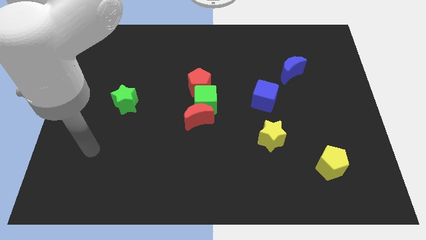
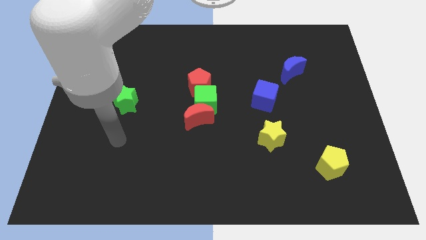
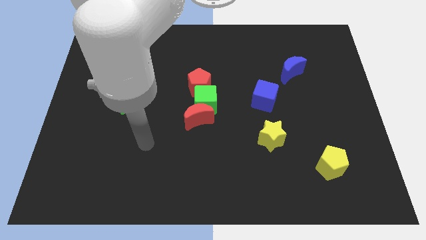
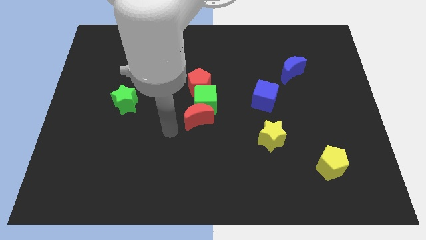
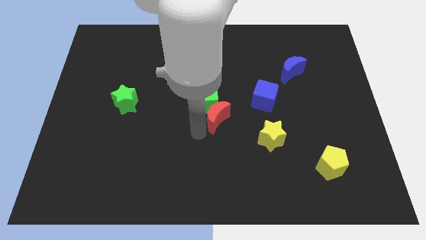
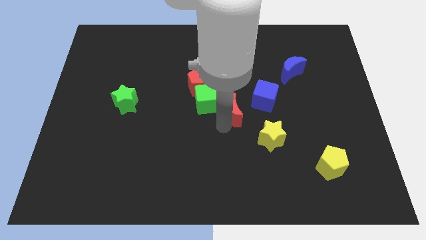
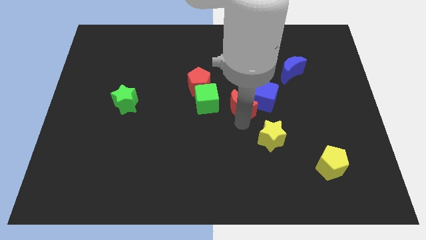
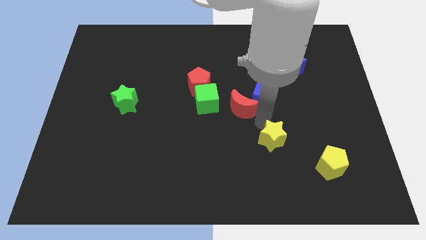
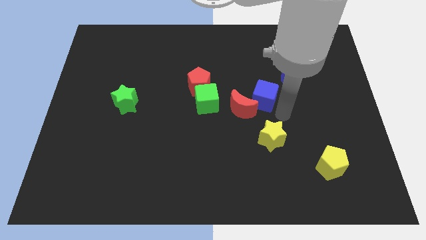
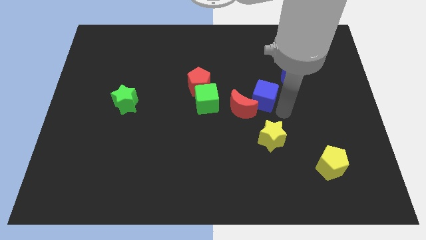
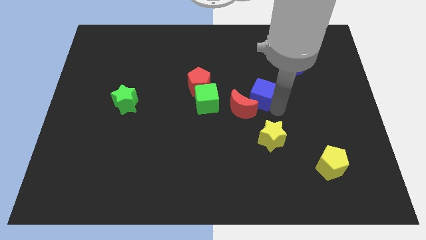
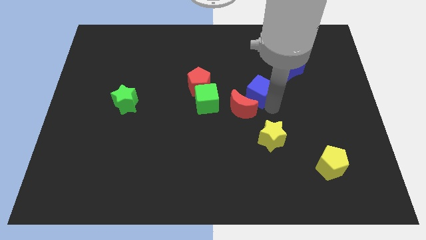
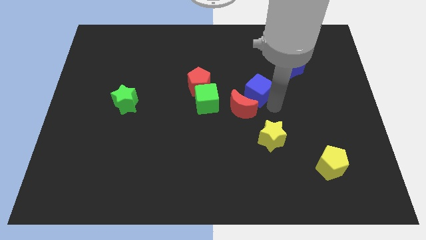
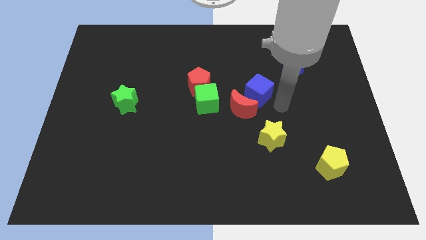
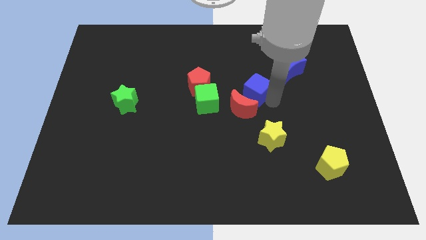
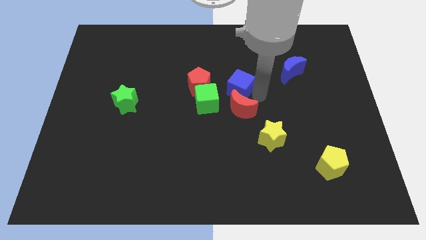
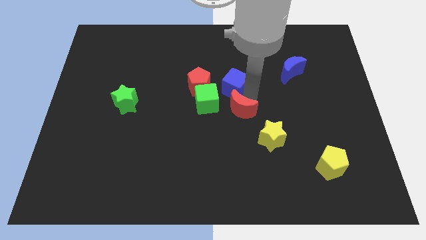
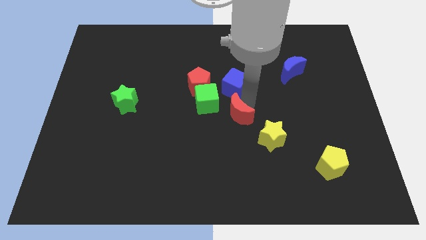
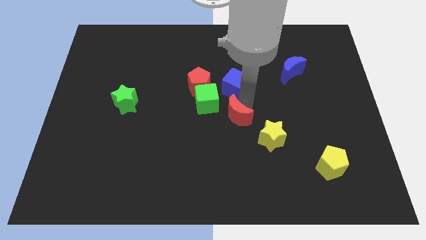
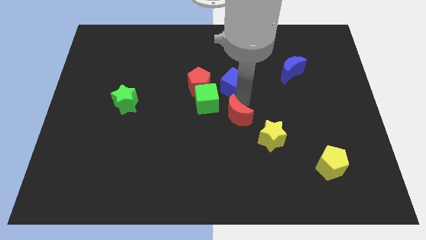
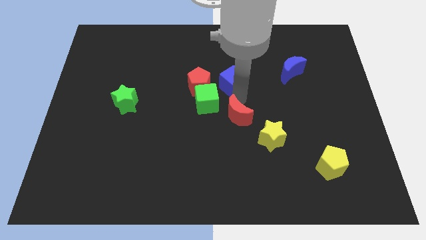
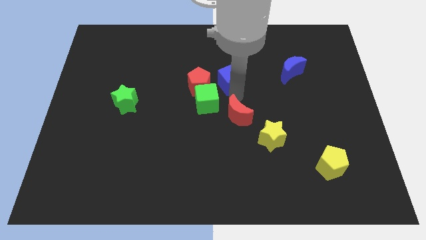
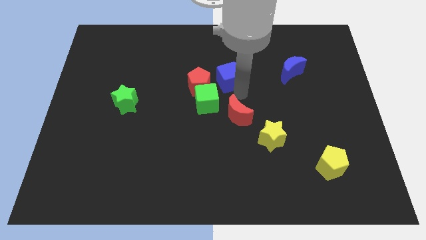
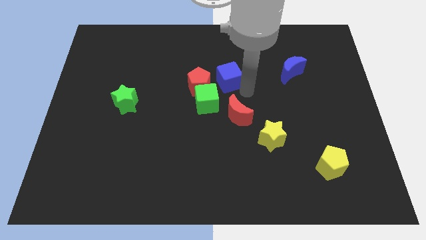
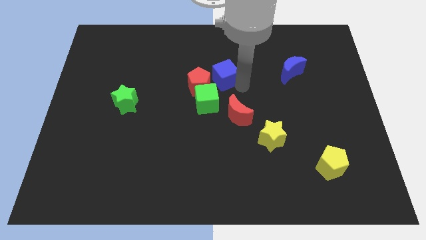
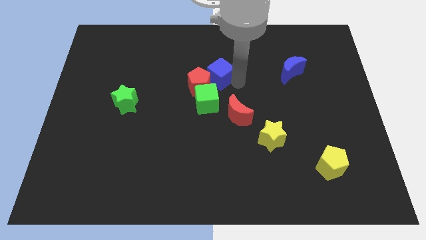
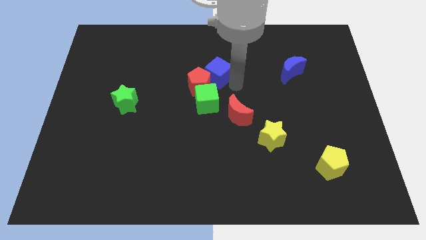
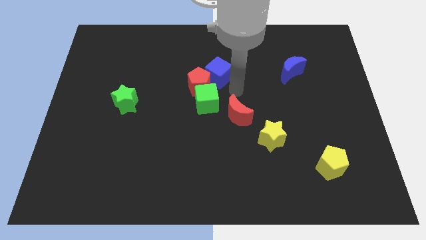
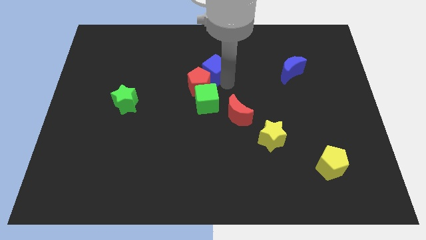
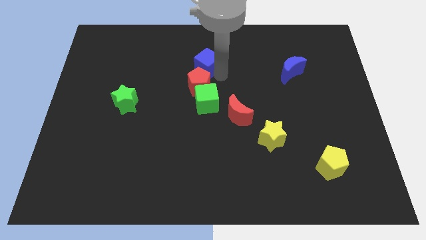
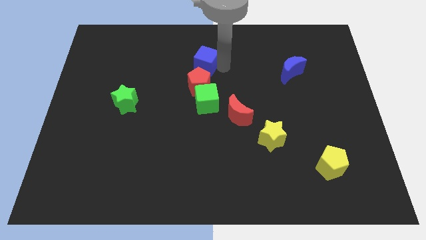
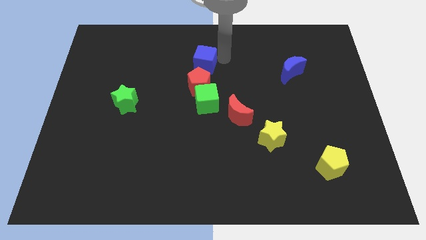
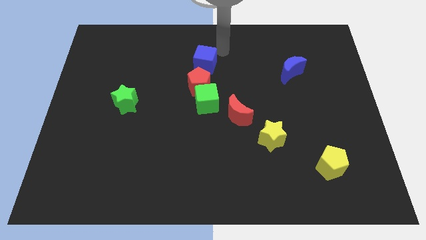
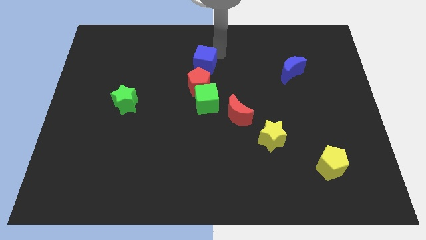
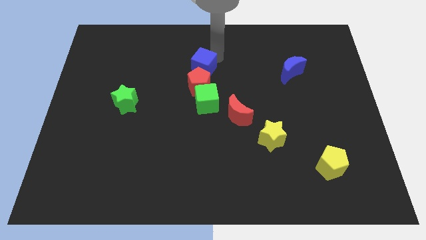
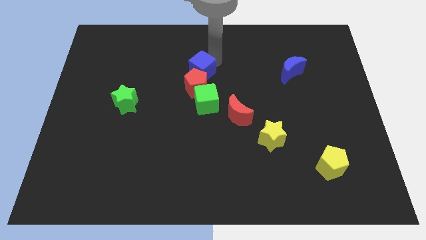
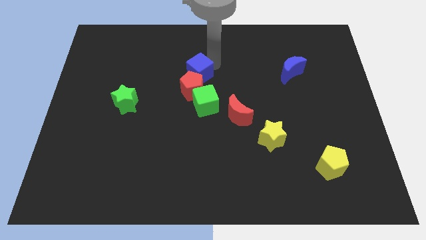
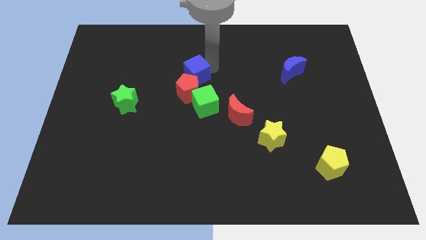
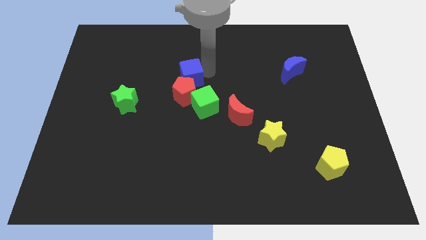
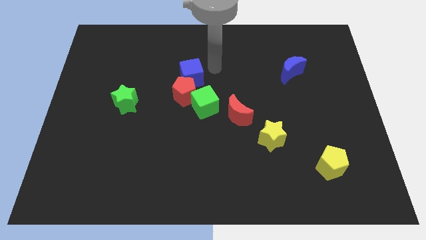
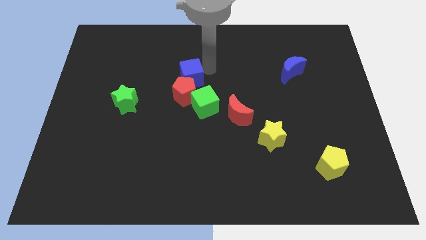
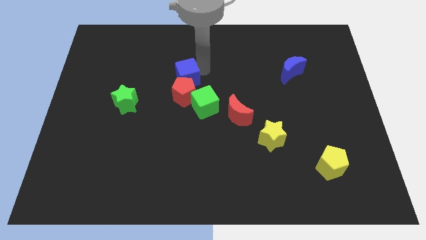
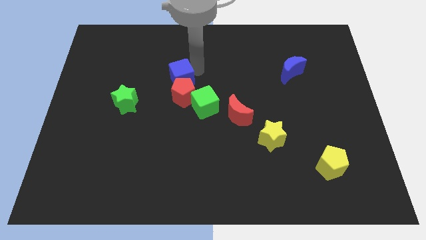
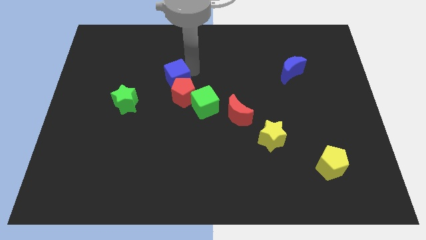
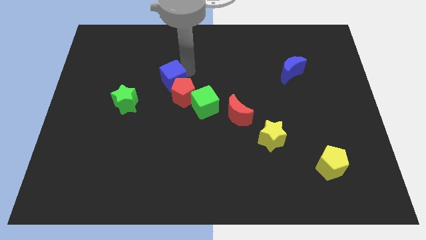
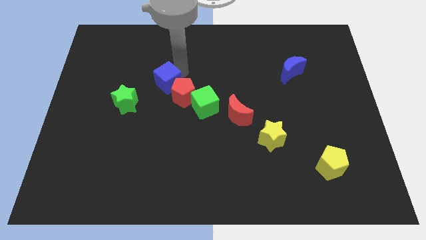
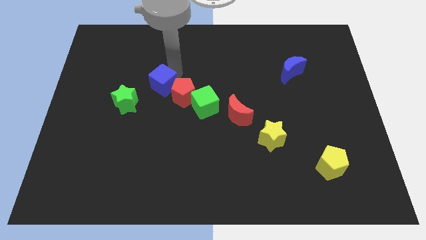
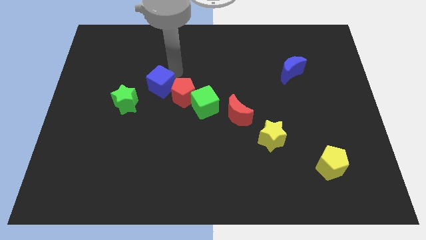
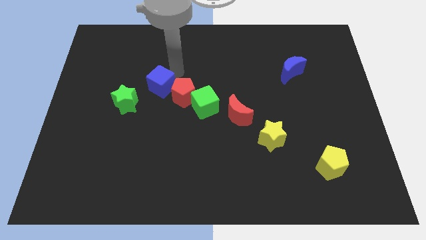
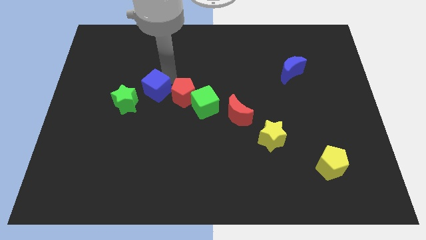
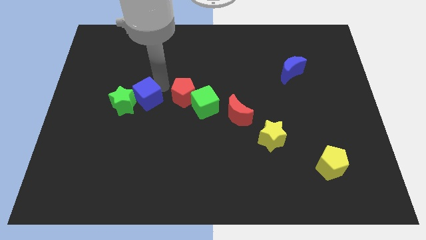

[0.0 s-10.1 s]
push the blue cube next to the green star

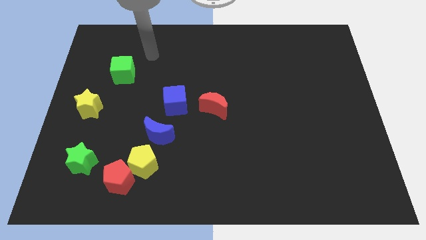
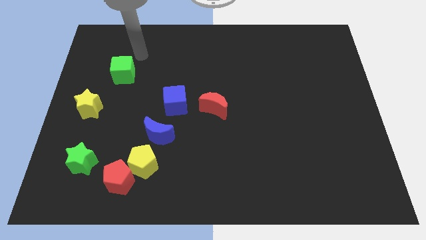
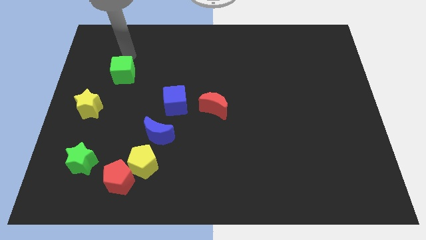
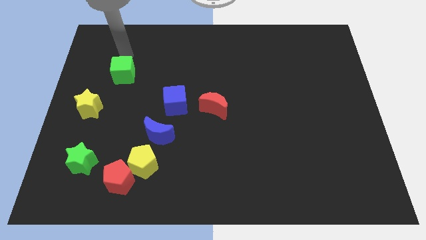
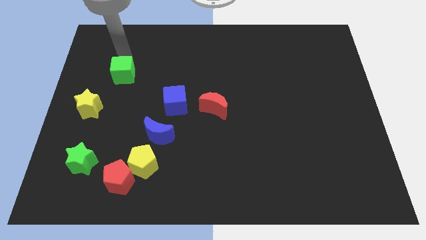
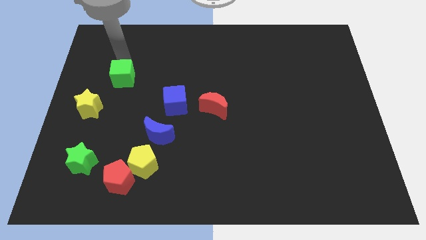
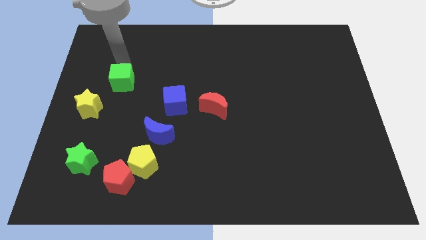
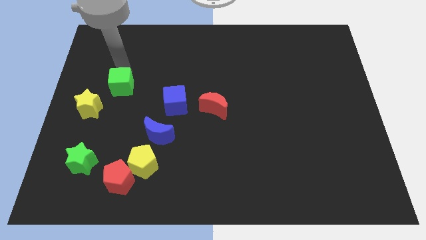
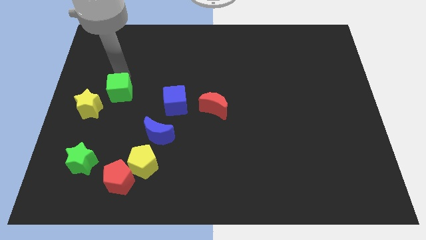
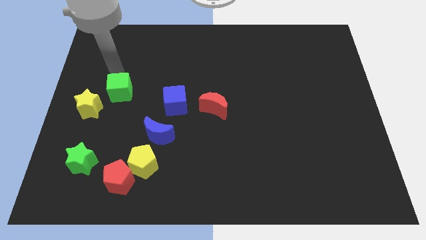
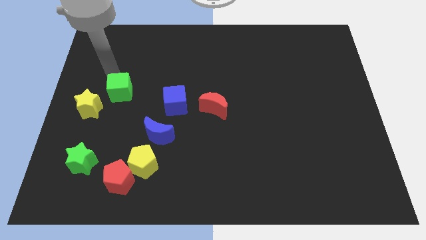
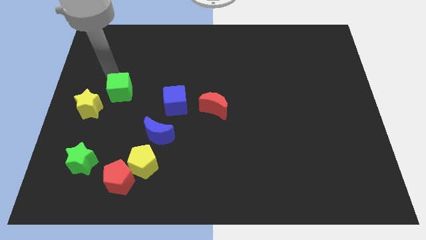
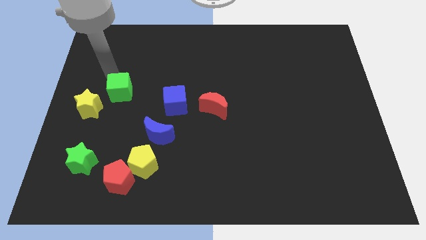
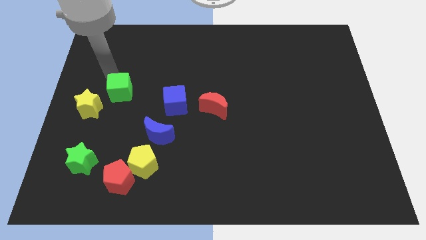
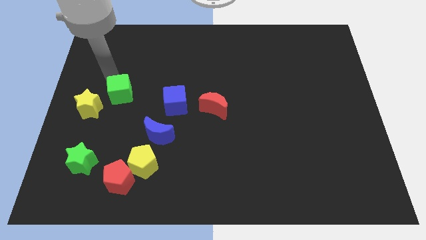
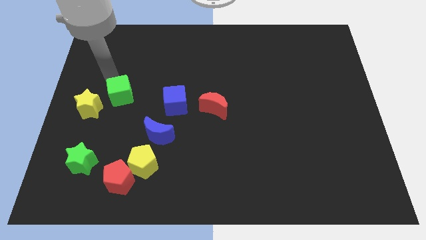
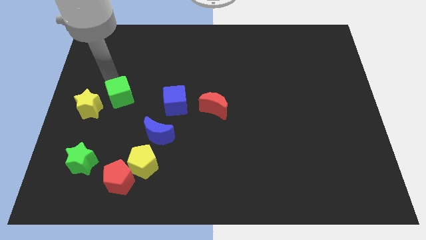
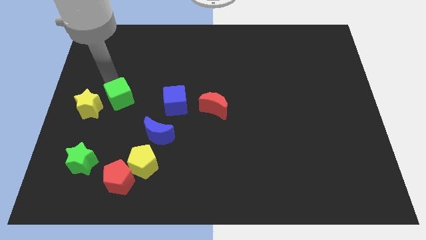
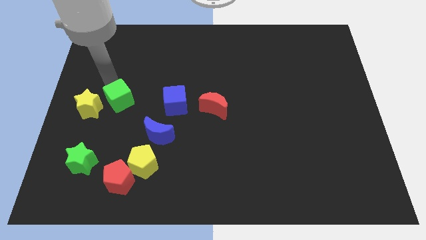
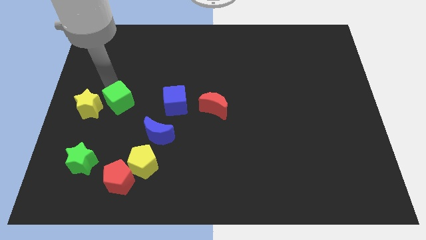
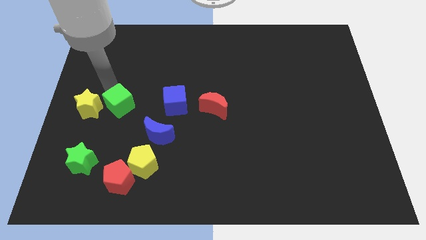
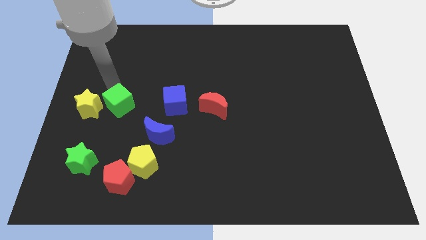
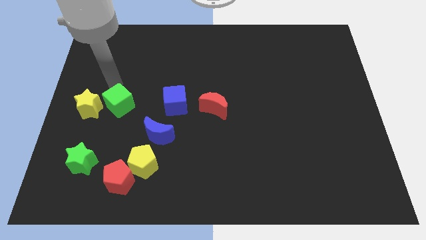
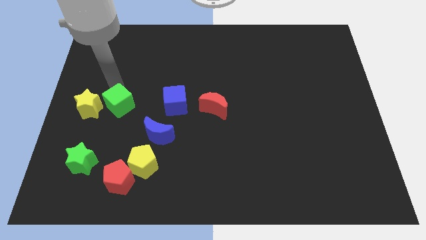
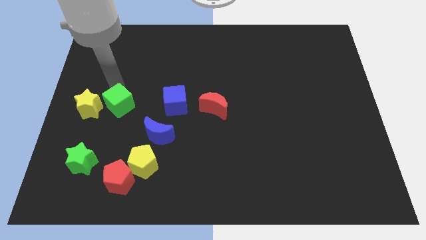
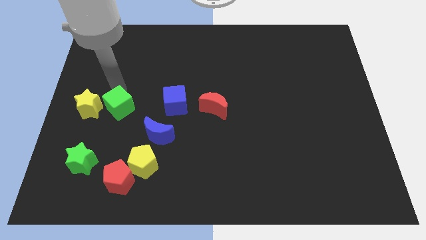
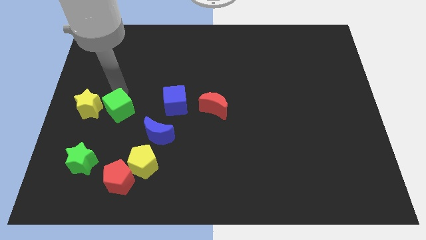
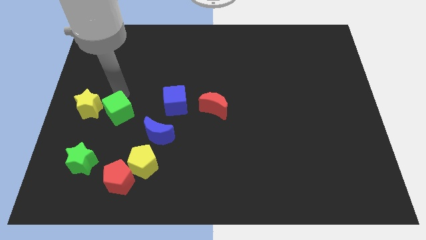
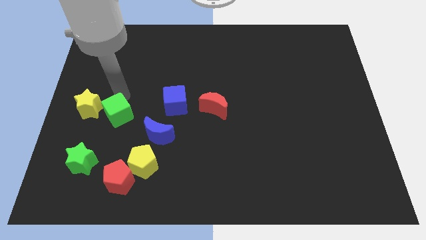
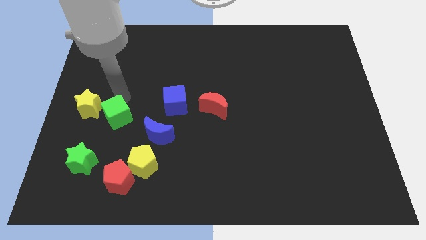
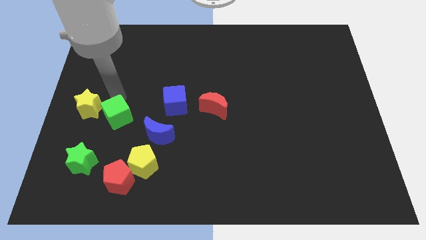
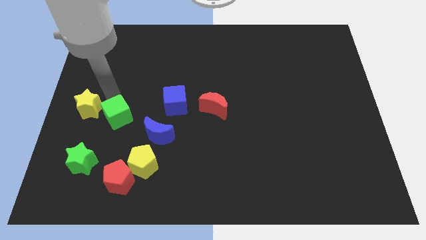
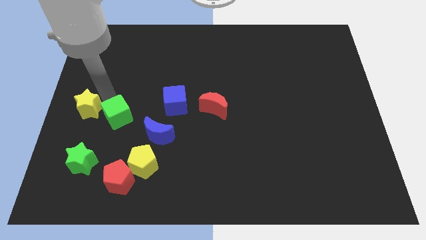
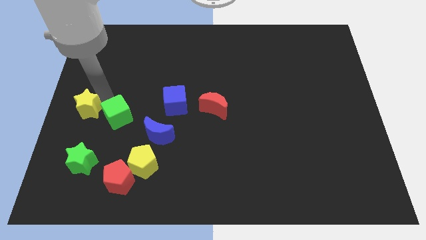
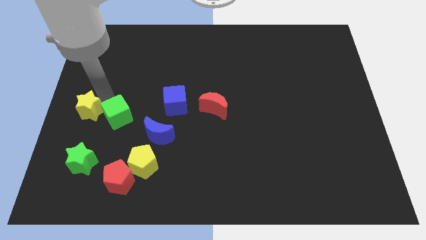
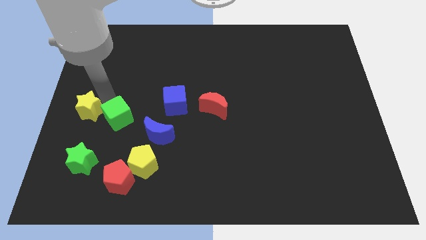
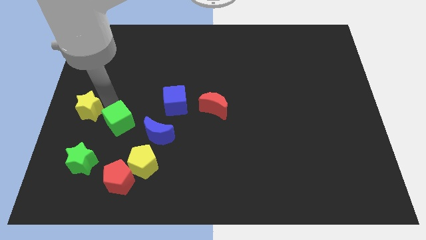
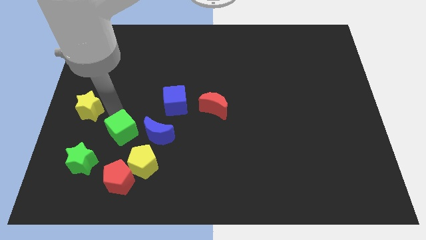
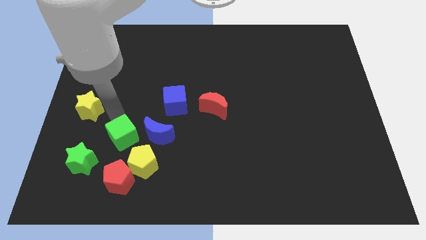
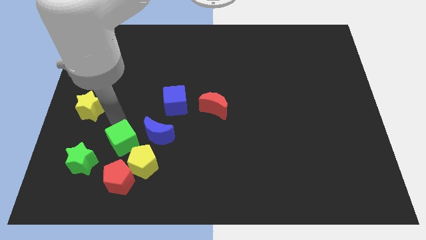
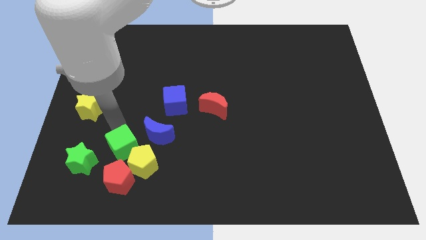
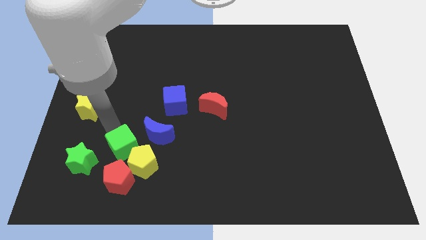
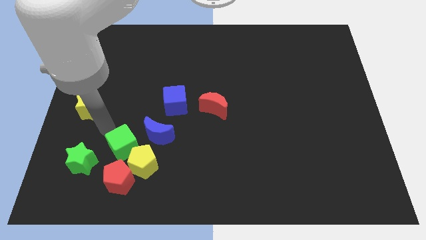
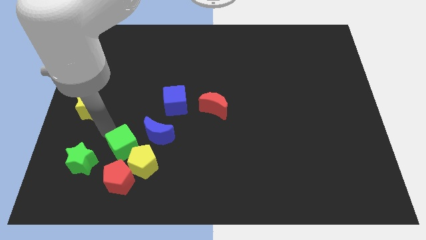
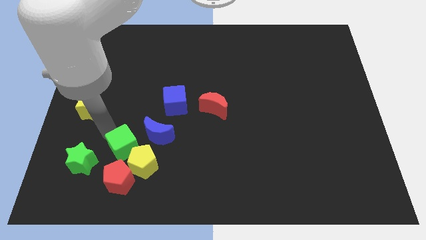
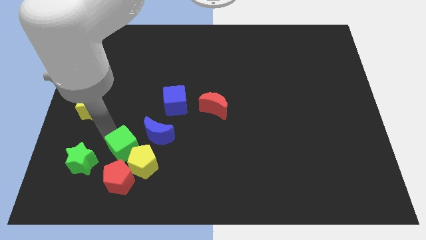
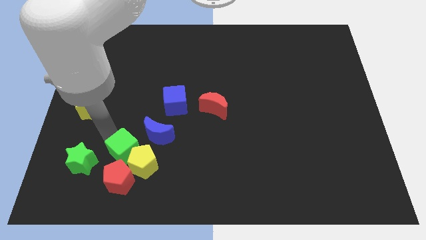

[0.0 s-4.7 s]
put the green cube towards the yellow pentagon
